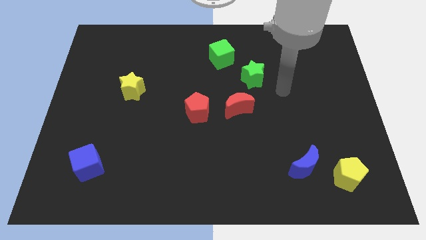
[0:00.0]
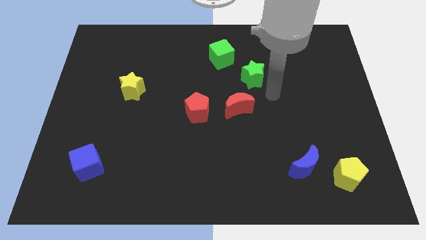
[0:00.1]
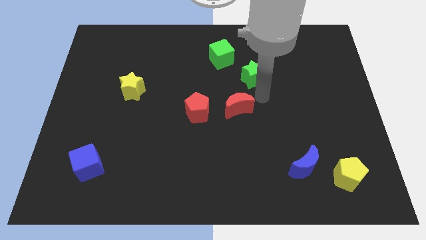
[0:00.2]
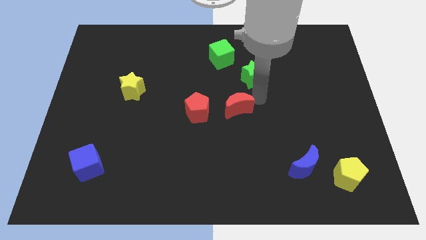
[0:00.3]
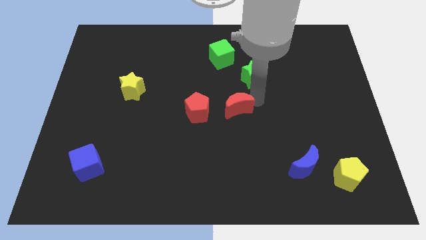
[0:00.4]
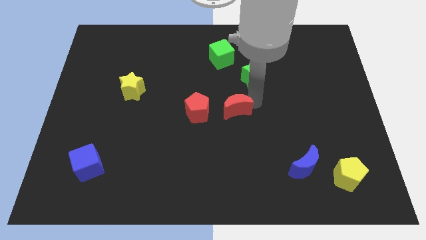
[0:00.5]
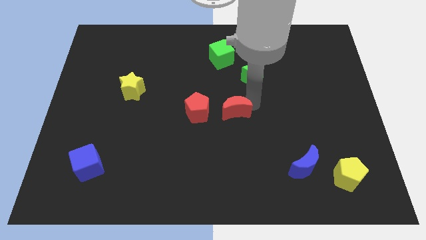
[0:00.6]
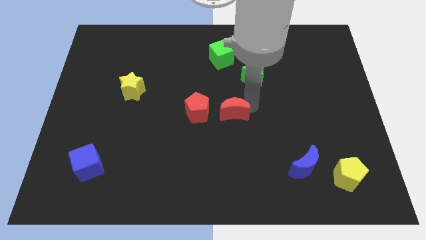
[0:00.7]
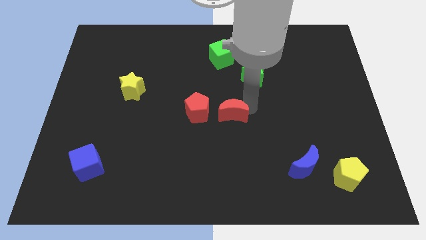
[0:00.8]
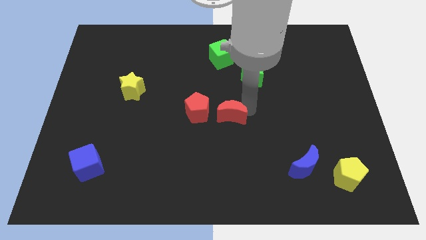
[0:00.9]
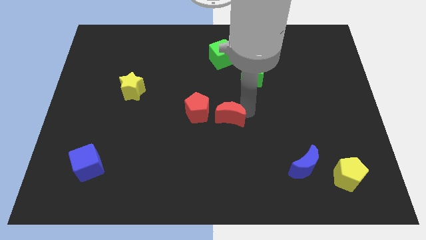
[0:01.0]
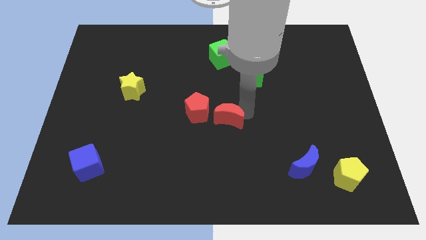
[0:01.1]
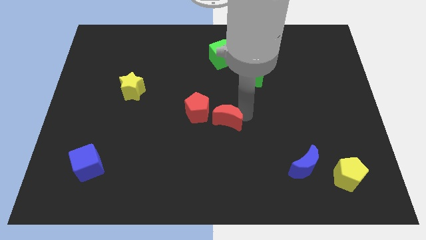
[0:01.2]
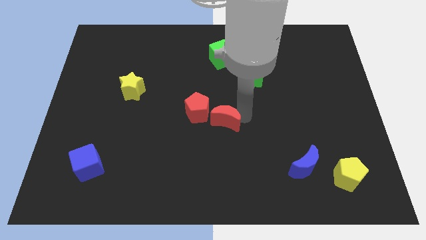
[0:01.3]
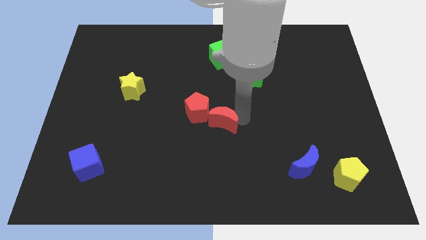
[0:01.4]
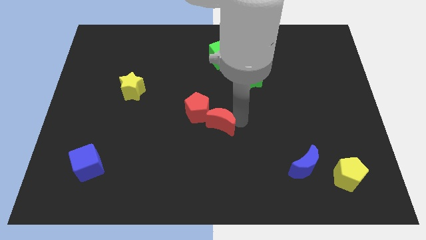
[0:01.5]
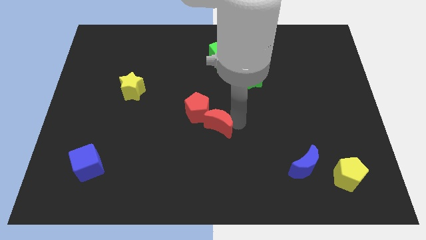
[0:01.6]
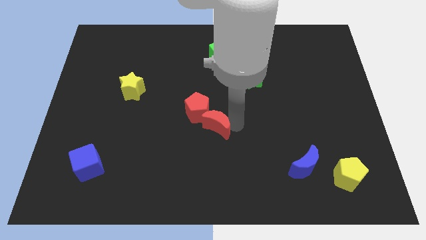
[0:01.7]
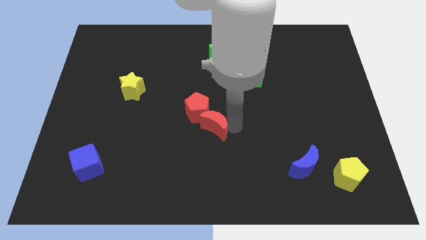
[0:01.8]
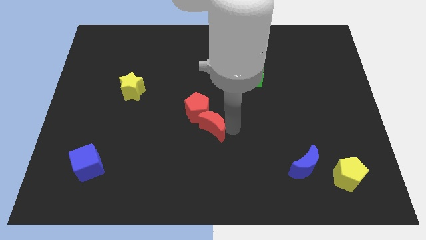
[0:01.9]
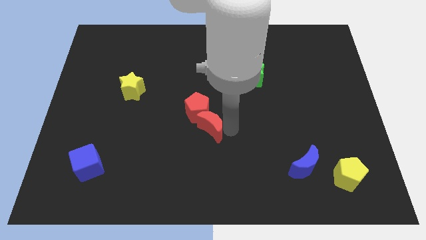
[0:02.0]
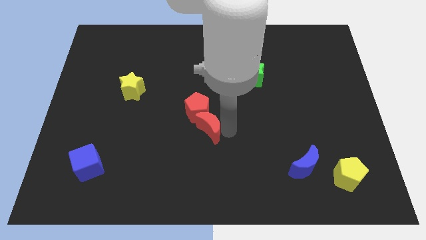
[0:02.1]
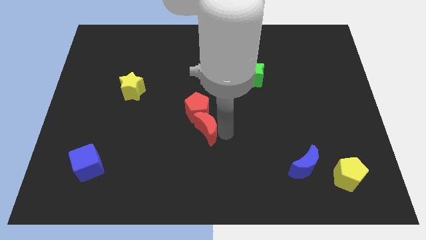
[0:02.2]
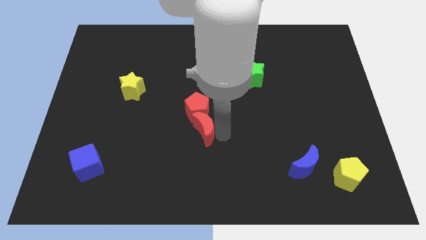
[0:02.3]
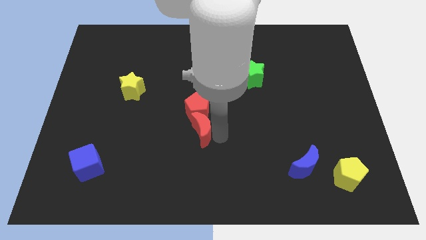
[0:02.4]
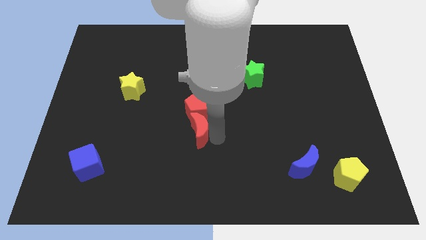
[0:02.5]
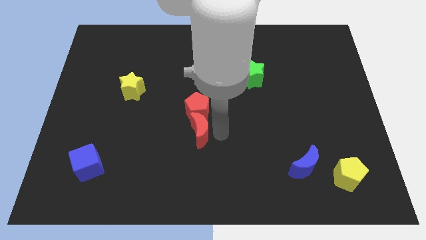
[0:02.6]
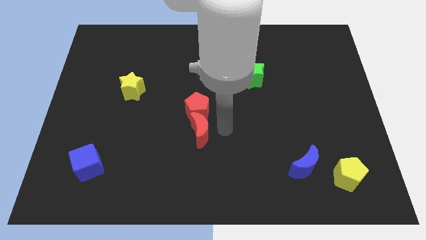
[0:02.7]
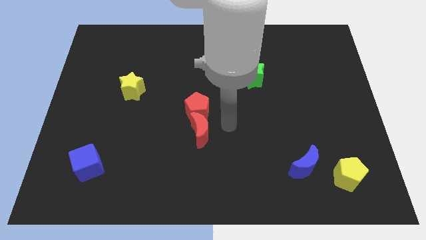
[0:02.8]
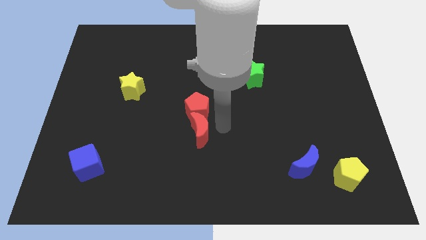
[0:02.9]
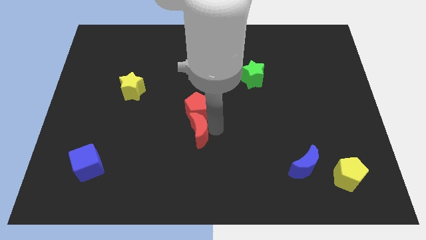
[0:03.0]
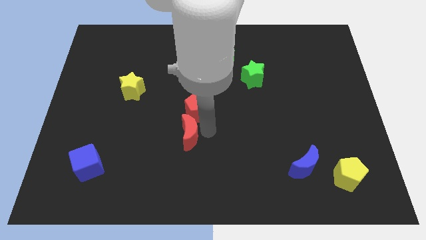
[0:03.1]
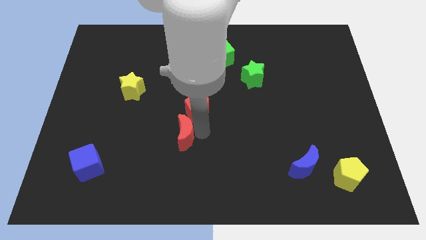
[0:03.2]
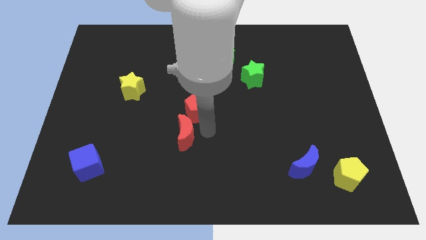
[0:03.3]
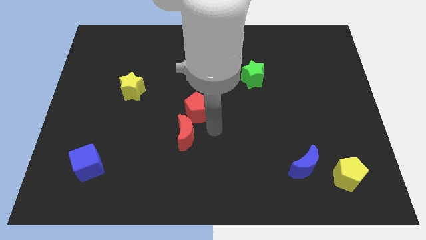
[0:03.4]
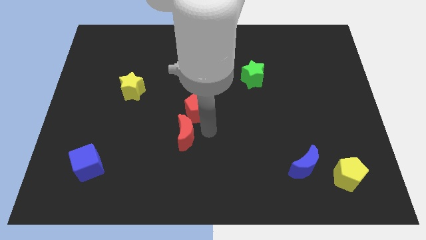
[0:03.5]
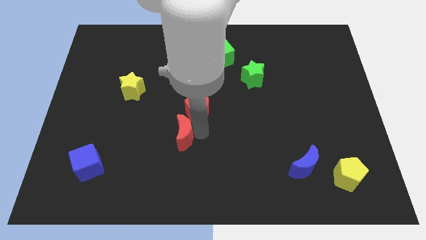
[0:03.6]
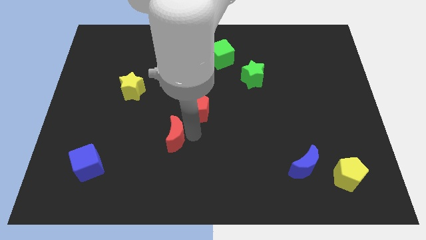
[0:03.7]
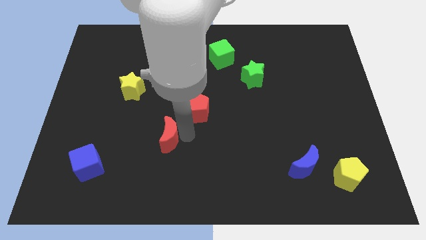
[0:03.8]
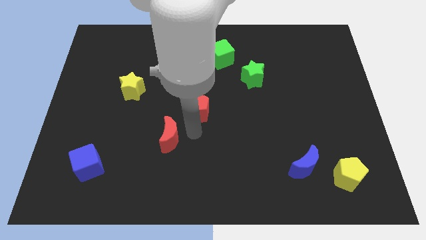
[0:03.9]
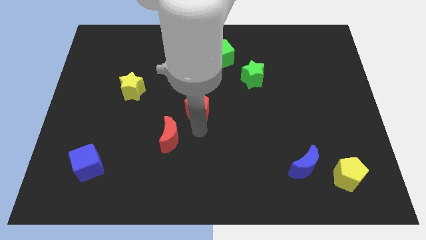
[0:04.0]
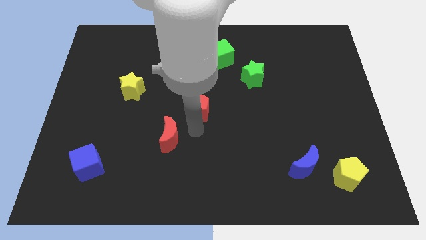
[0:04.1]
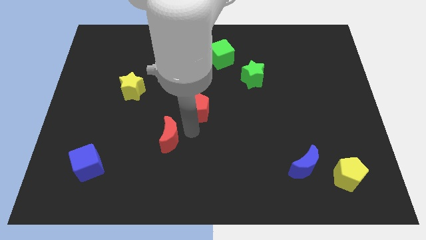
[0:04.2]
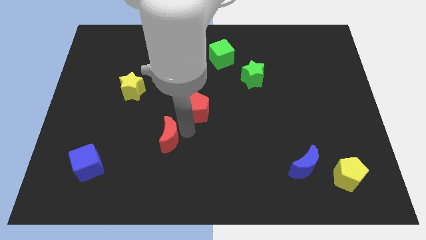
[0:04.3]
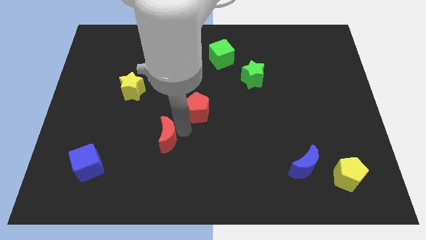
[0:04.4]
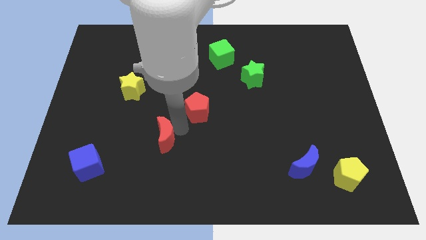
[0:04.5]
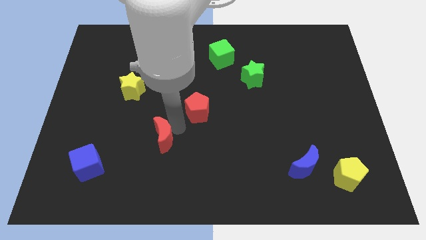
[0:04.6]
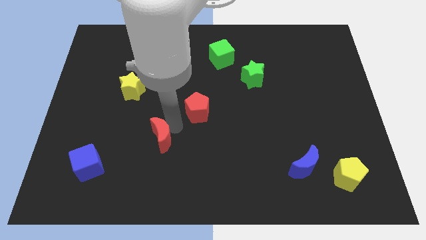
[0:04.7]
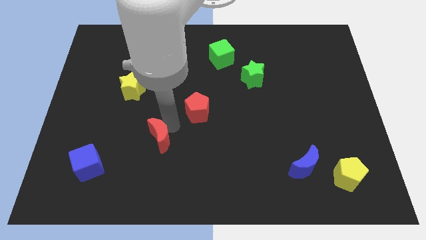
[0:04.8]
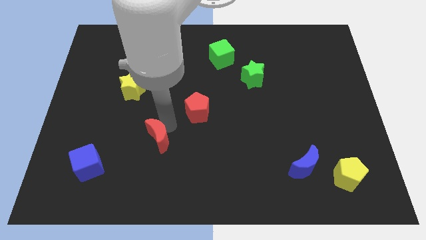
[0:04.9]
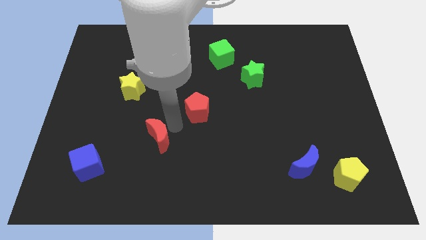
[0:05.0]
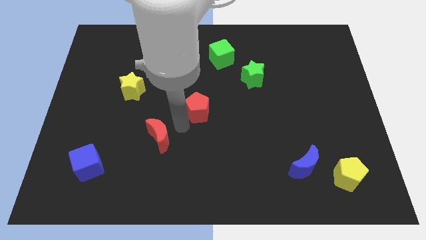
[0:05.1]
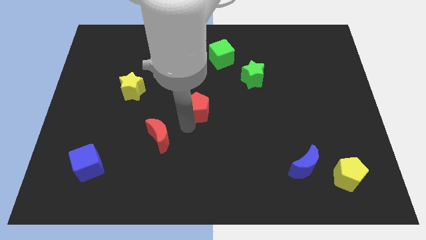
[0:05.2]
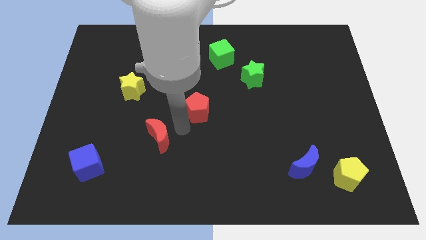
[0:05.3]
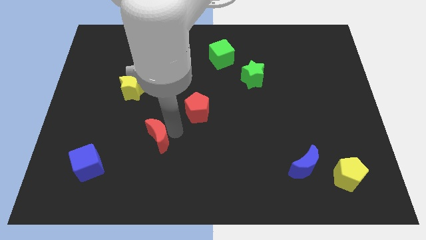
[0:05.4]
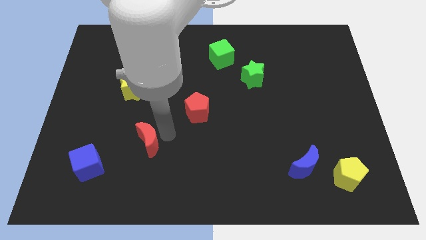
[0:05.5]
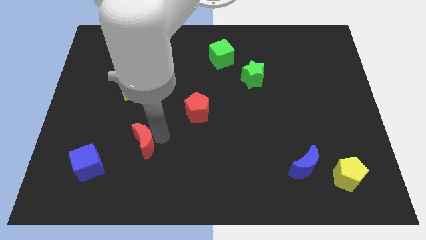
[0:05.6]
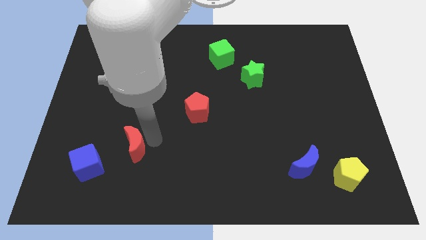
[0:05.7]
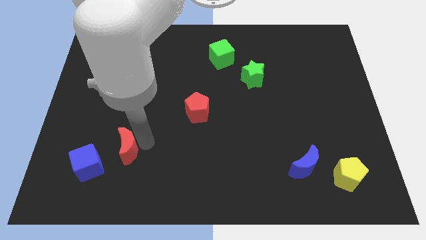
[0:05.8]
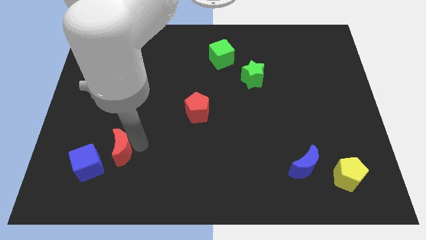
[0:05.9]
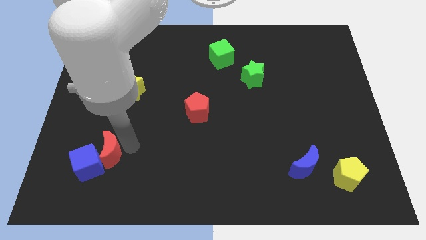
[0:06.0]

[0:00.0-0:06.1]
move the red moon close to the blue cube

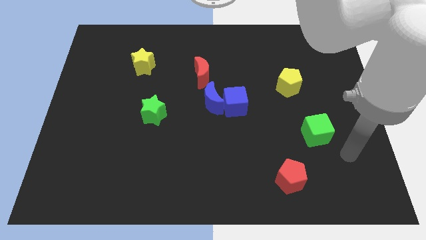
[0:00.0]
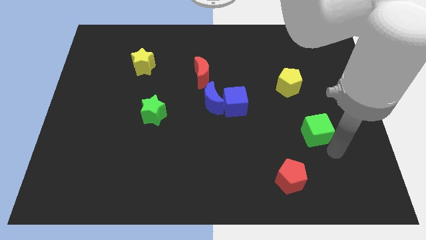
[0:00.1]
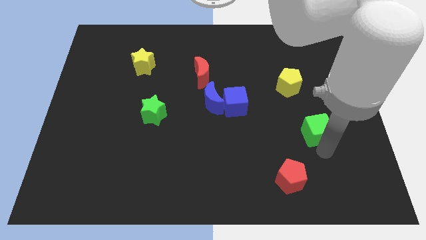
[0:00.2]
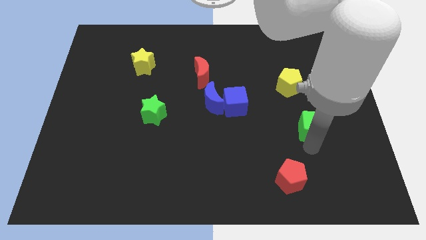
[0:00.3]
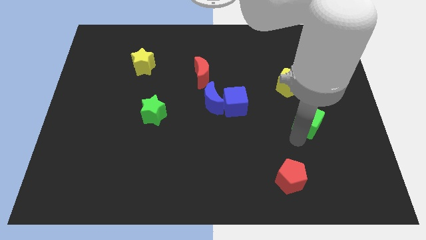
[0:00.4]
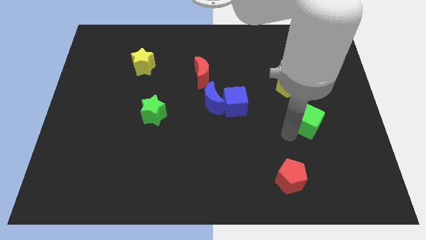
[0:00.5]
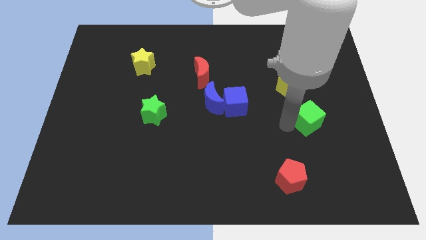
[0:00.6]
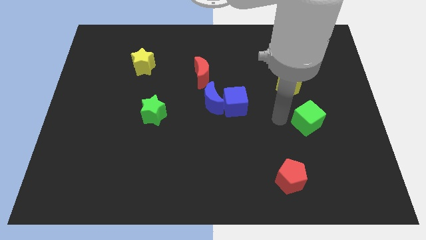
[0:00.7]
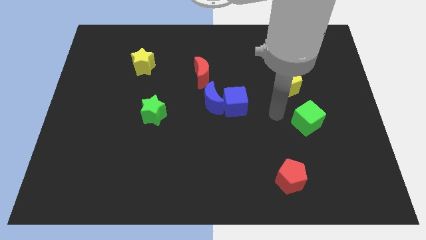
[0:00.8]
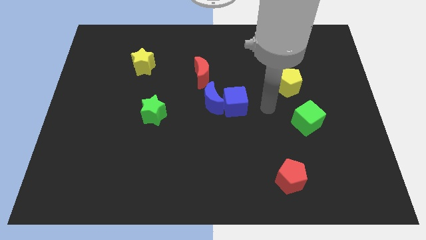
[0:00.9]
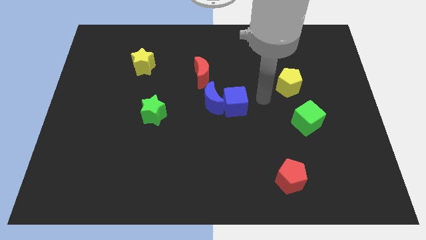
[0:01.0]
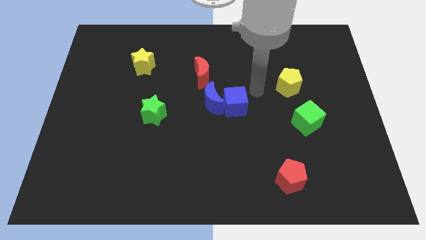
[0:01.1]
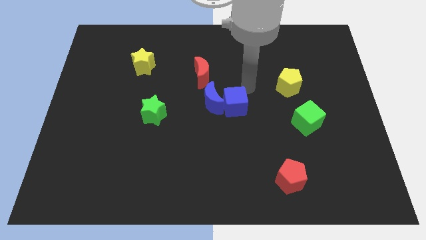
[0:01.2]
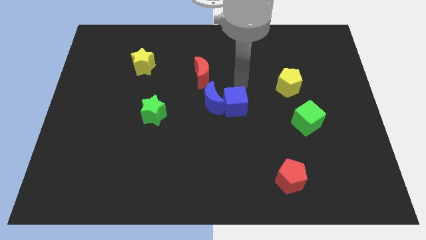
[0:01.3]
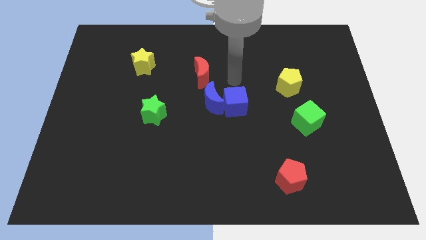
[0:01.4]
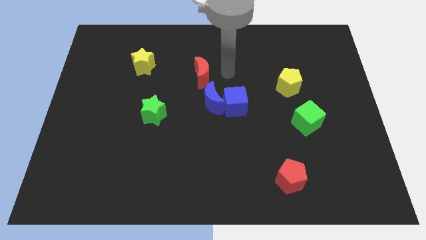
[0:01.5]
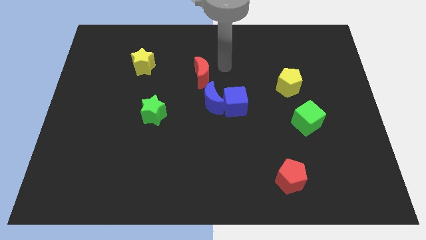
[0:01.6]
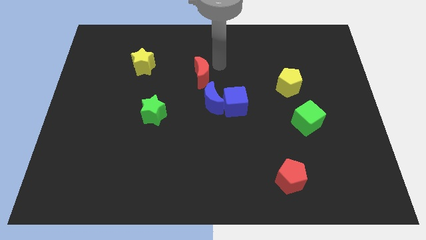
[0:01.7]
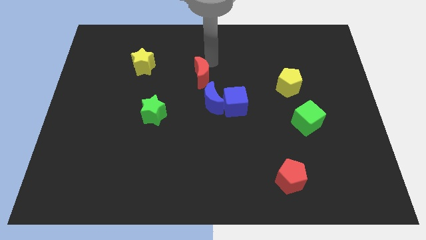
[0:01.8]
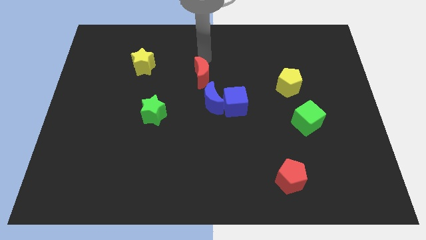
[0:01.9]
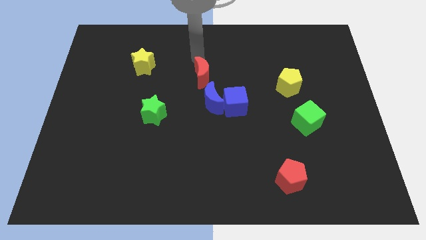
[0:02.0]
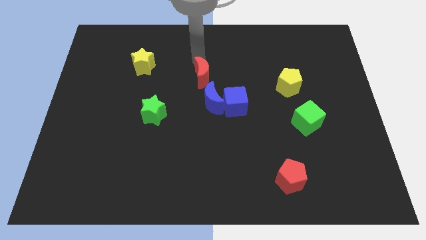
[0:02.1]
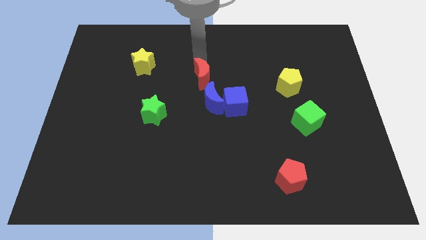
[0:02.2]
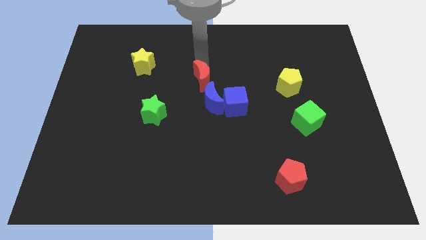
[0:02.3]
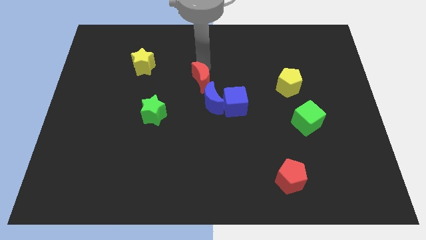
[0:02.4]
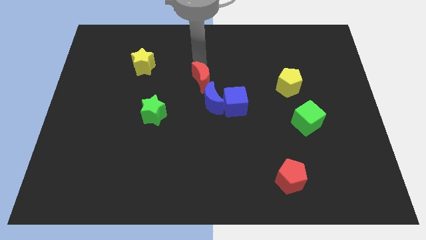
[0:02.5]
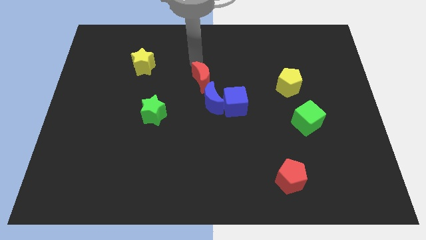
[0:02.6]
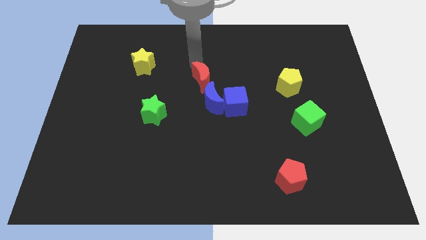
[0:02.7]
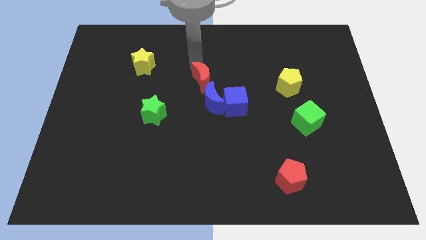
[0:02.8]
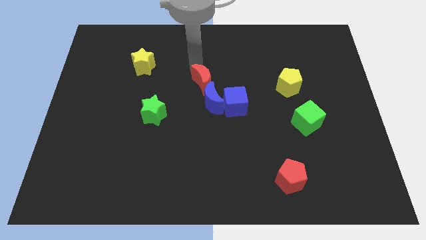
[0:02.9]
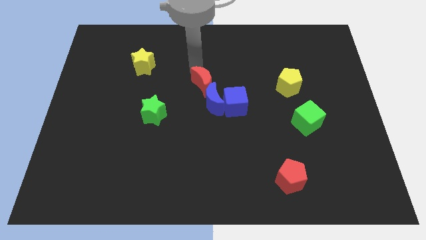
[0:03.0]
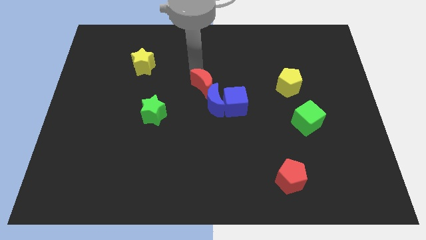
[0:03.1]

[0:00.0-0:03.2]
push the red moon next to the blue moon
